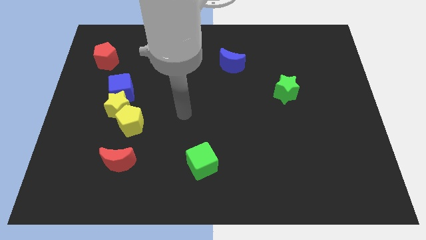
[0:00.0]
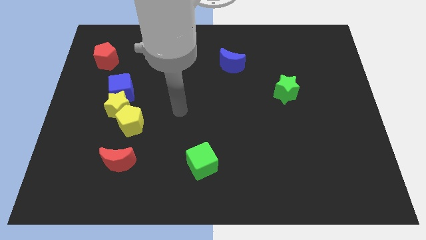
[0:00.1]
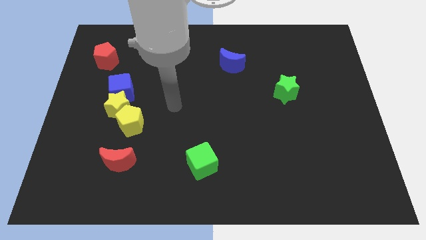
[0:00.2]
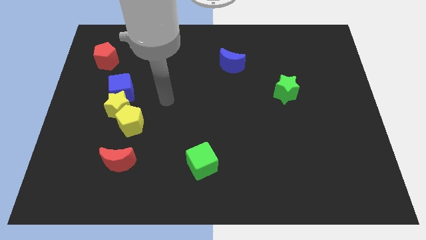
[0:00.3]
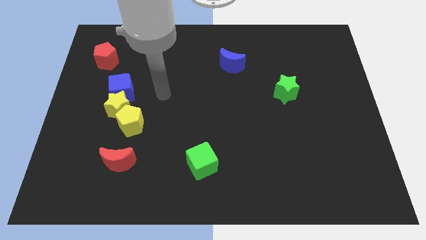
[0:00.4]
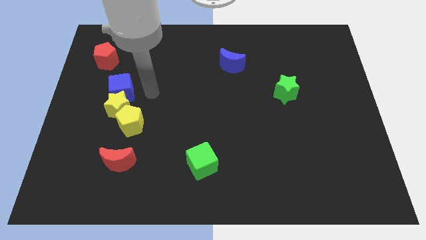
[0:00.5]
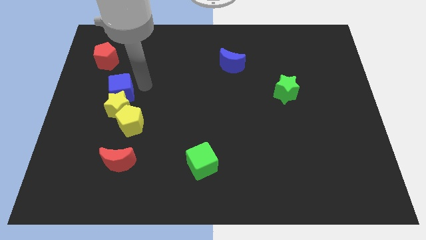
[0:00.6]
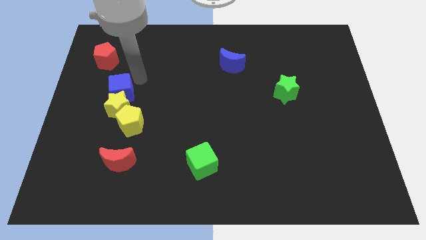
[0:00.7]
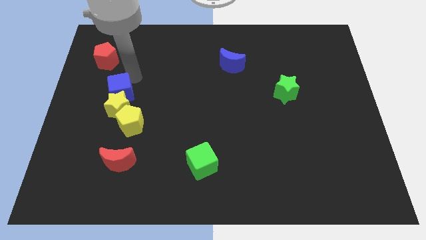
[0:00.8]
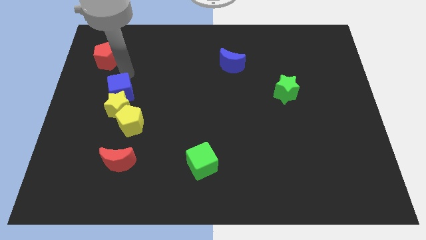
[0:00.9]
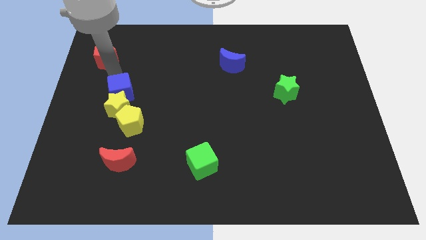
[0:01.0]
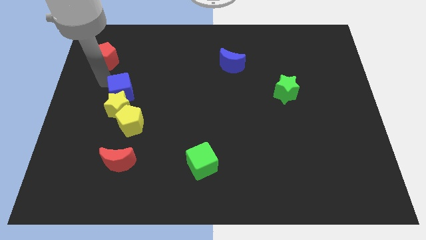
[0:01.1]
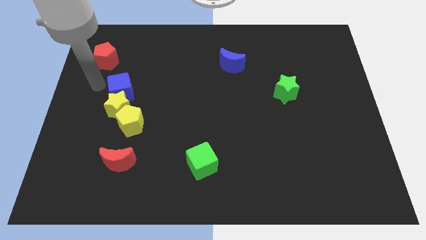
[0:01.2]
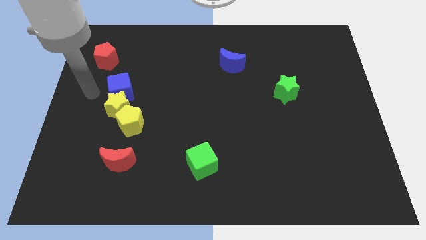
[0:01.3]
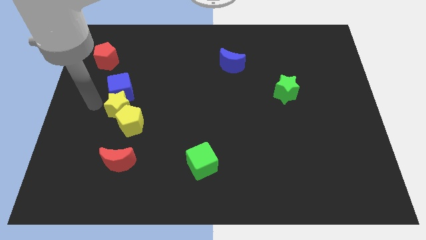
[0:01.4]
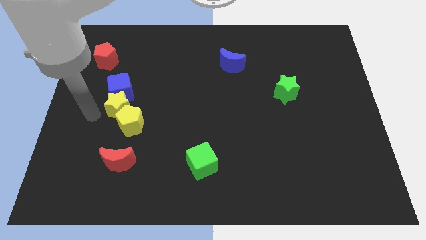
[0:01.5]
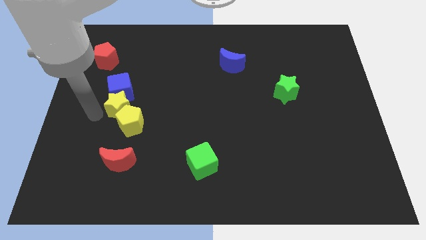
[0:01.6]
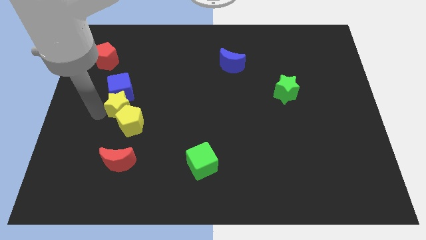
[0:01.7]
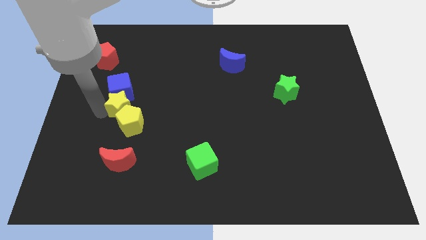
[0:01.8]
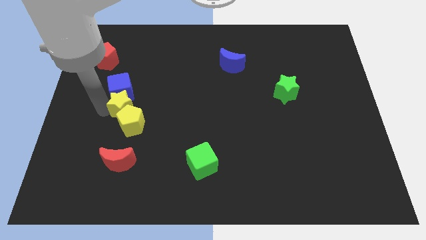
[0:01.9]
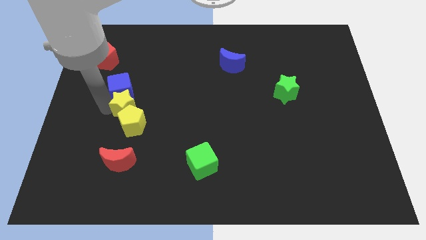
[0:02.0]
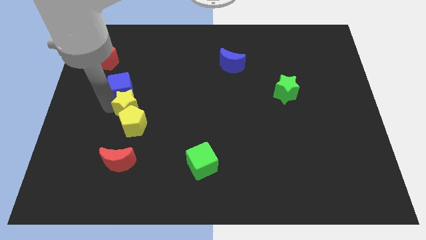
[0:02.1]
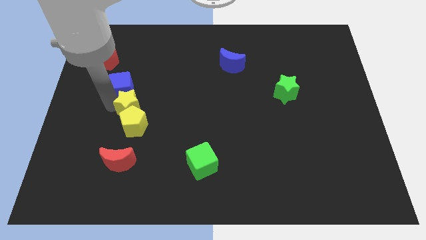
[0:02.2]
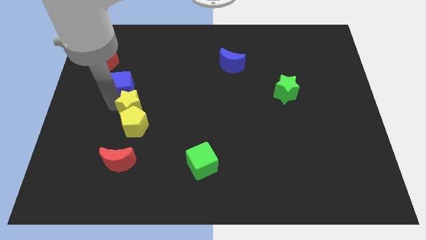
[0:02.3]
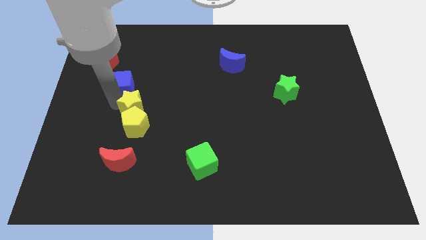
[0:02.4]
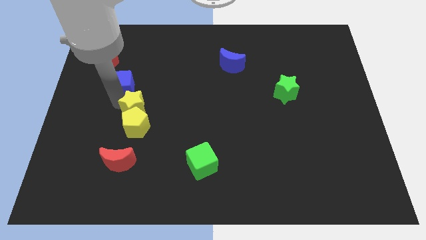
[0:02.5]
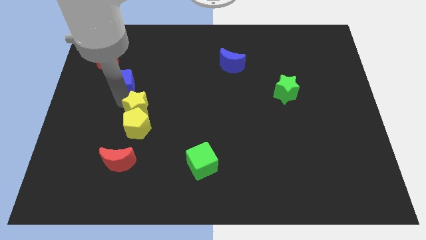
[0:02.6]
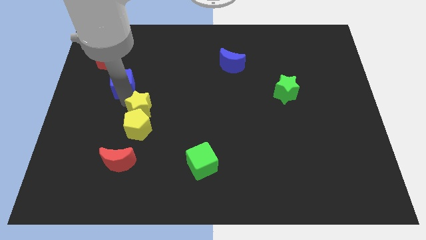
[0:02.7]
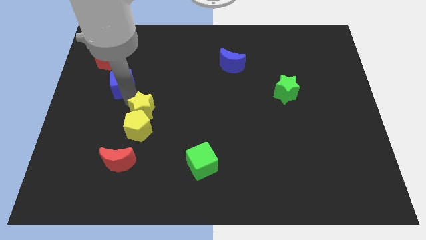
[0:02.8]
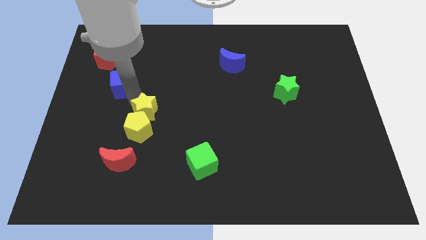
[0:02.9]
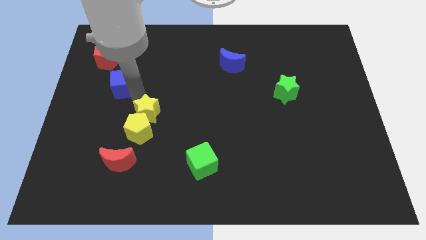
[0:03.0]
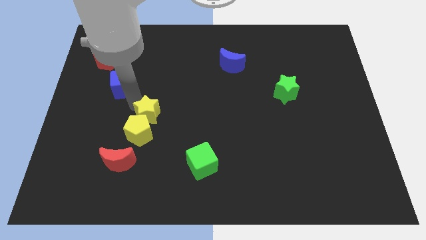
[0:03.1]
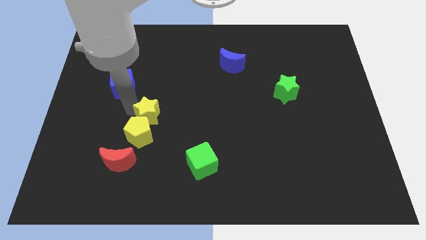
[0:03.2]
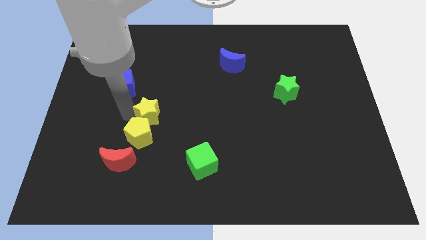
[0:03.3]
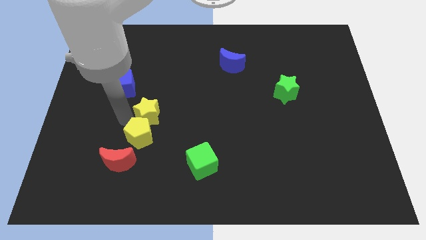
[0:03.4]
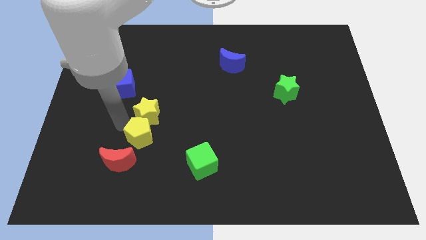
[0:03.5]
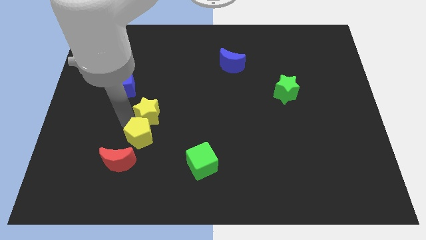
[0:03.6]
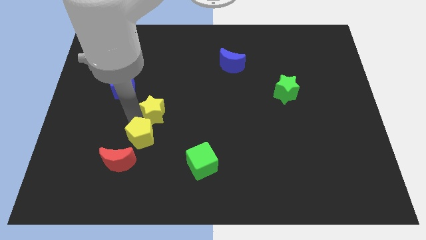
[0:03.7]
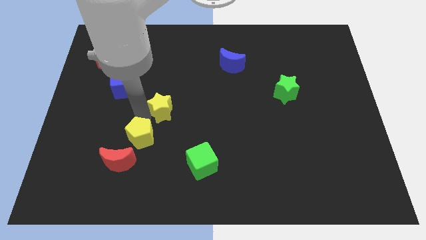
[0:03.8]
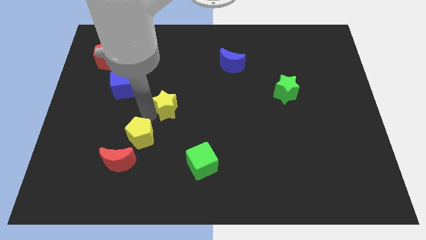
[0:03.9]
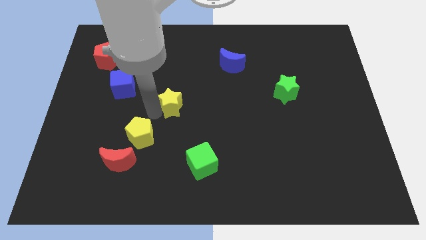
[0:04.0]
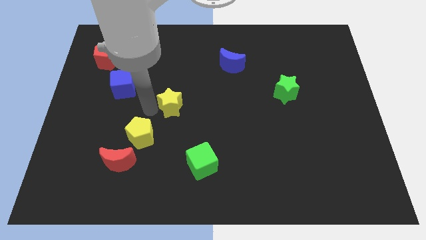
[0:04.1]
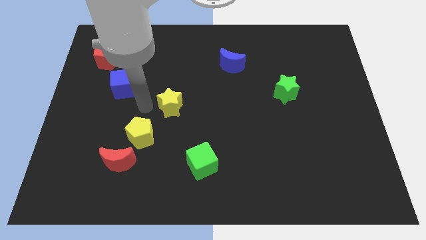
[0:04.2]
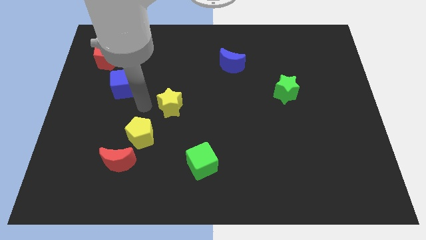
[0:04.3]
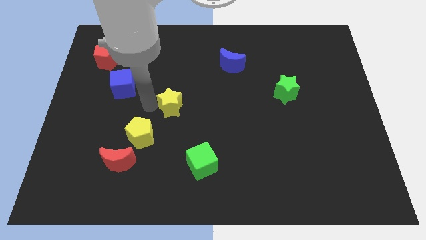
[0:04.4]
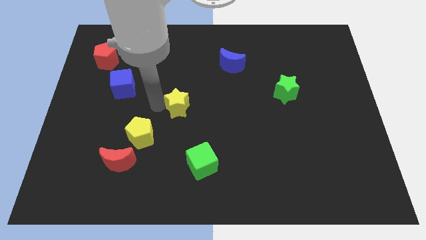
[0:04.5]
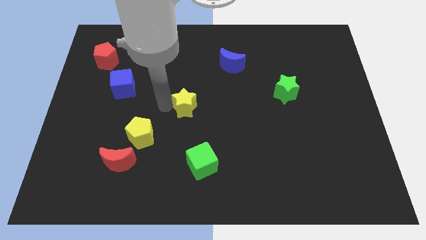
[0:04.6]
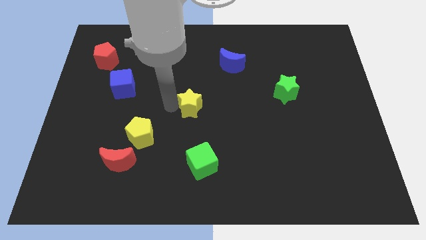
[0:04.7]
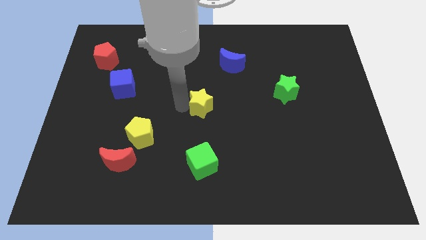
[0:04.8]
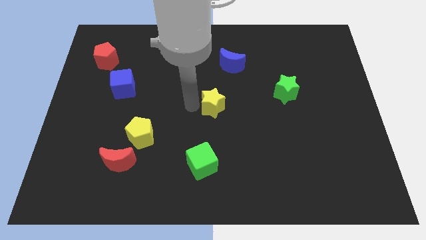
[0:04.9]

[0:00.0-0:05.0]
move the yellow star to the right

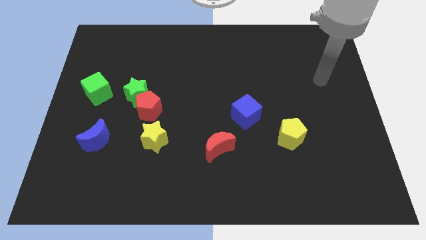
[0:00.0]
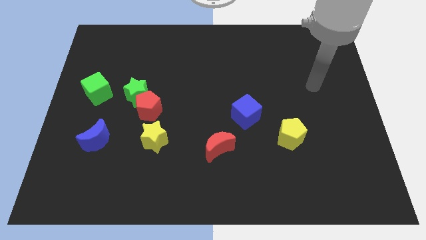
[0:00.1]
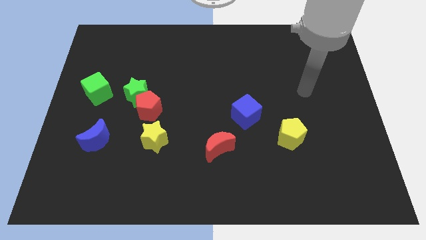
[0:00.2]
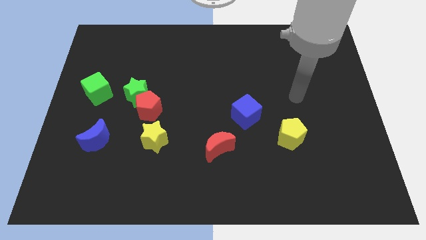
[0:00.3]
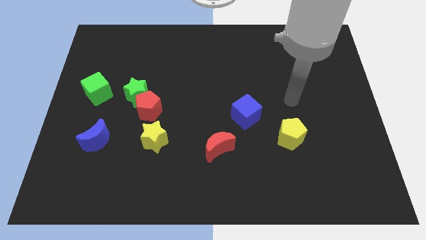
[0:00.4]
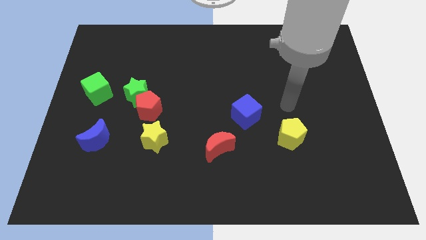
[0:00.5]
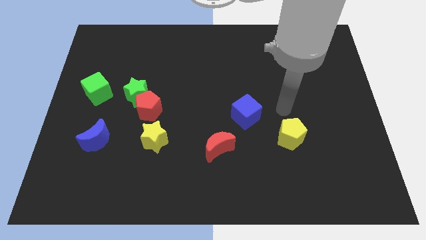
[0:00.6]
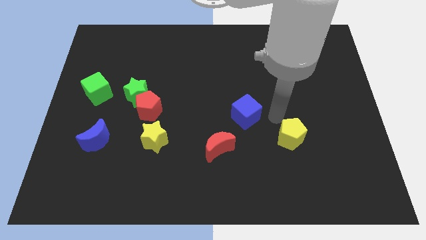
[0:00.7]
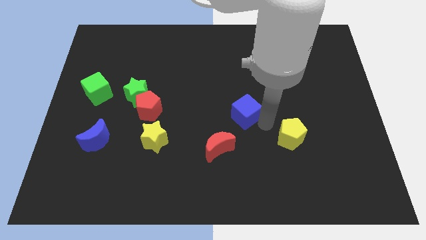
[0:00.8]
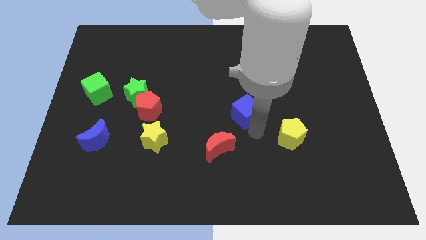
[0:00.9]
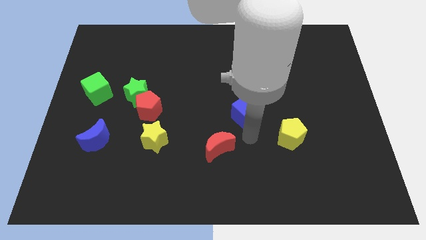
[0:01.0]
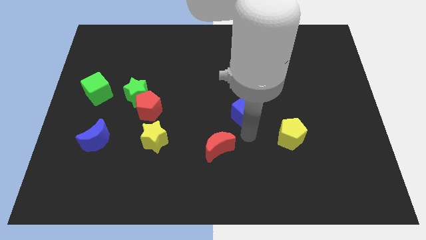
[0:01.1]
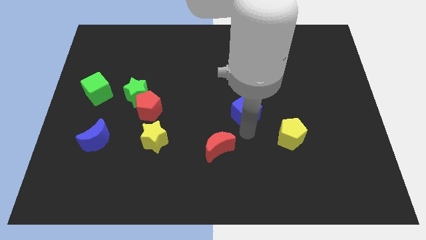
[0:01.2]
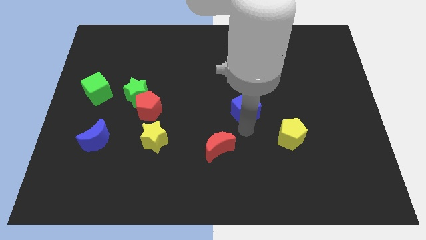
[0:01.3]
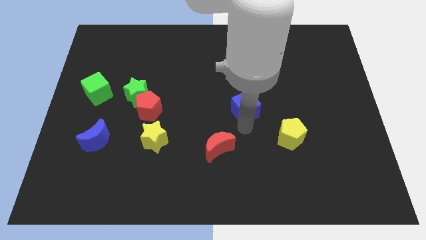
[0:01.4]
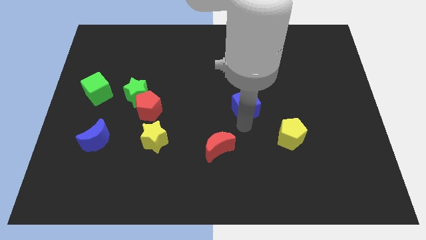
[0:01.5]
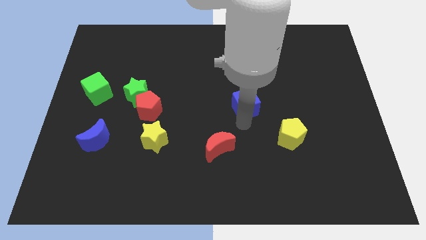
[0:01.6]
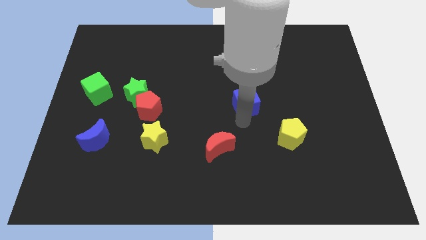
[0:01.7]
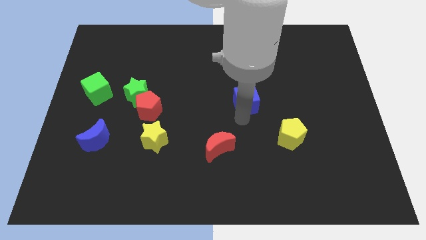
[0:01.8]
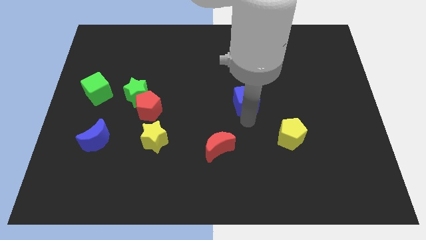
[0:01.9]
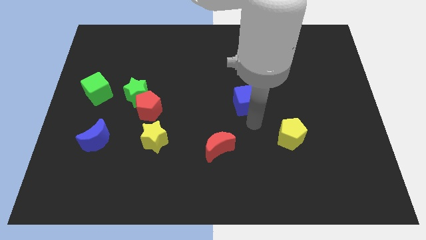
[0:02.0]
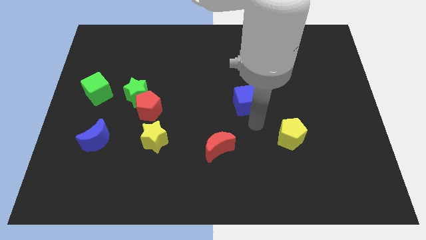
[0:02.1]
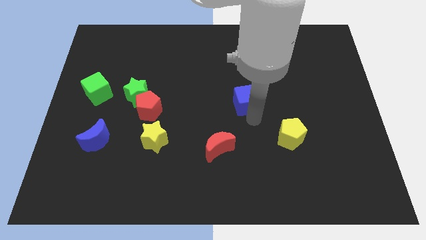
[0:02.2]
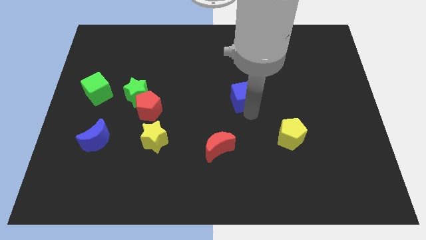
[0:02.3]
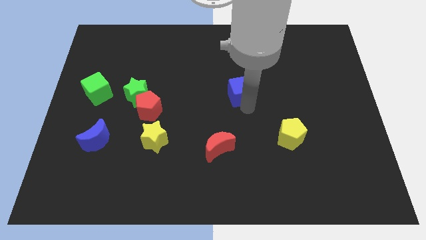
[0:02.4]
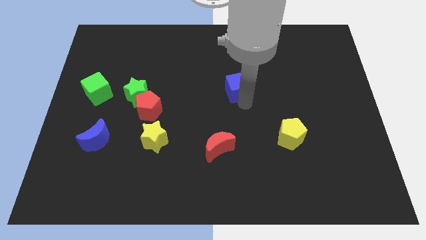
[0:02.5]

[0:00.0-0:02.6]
slightly slide the blue cube upwards
